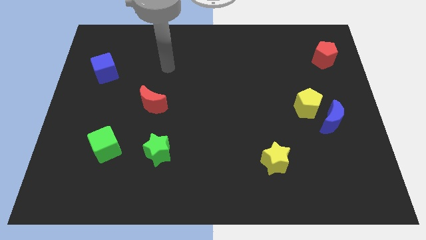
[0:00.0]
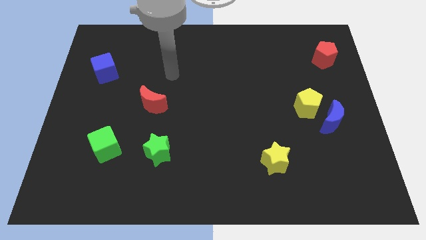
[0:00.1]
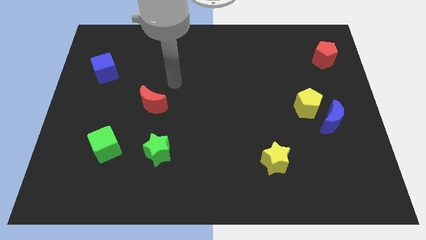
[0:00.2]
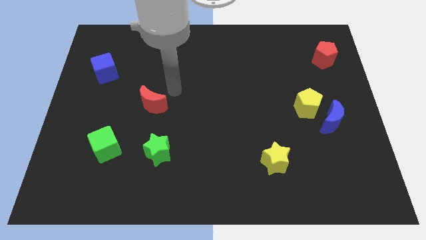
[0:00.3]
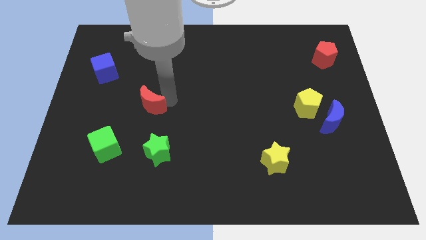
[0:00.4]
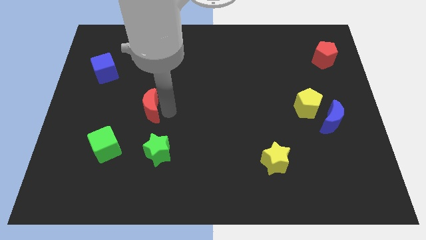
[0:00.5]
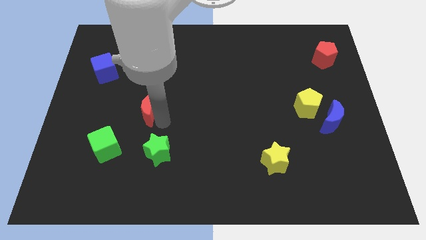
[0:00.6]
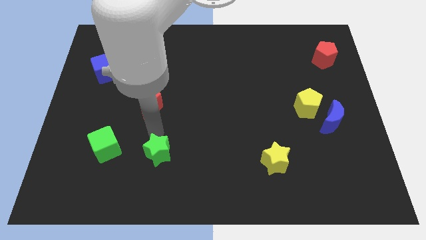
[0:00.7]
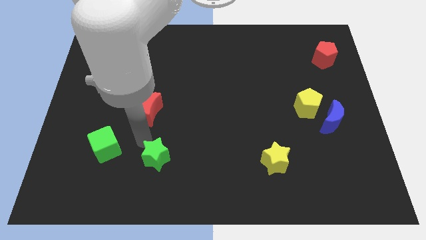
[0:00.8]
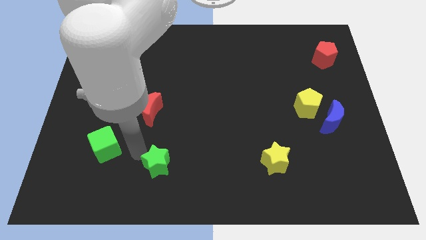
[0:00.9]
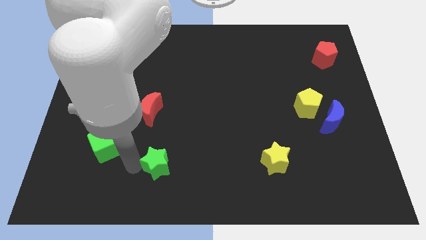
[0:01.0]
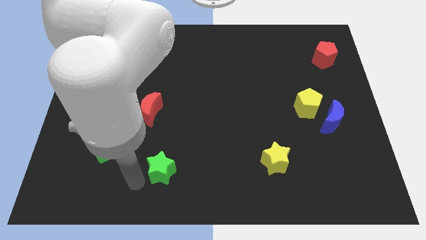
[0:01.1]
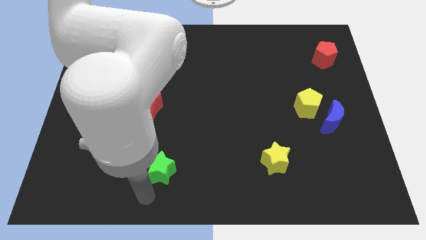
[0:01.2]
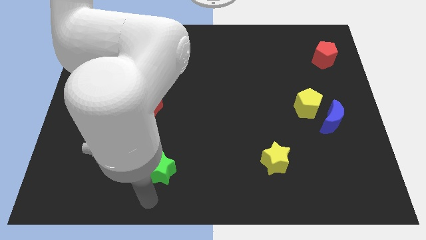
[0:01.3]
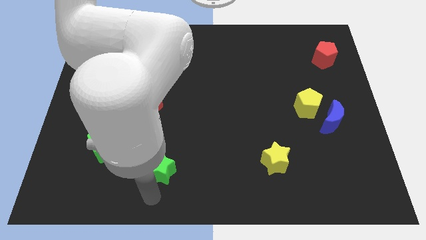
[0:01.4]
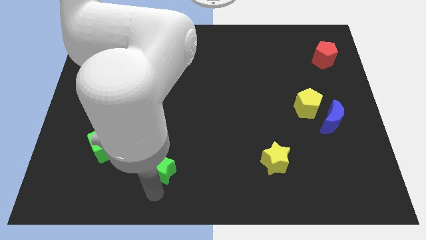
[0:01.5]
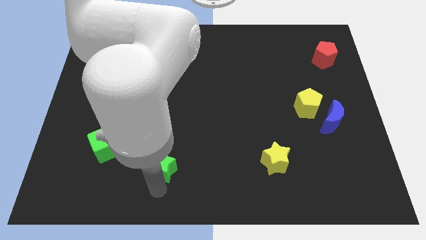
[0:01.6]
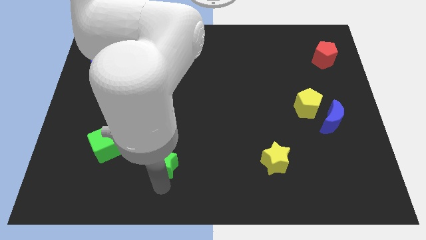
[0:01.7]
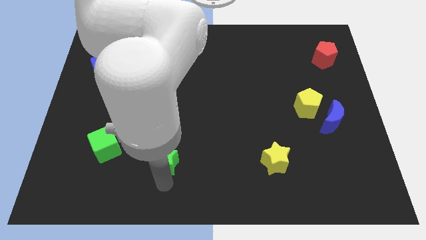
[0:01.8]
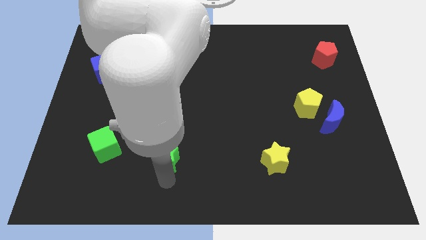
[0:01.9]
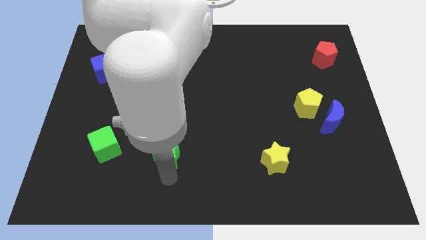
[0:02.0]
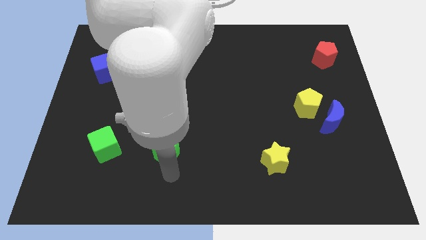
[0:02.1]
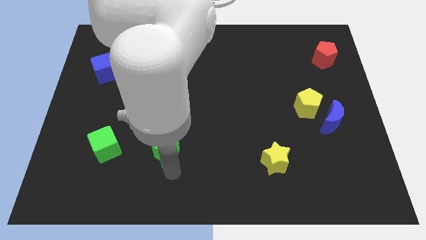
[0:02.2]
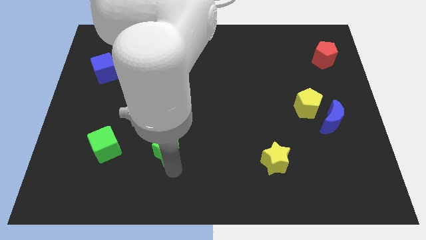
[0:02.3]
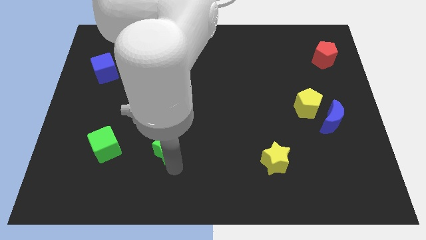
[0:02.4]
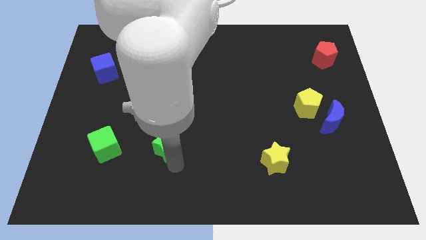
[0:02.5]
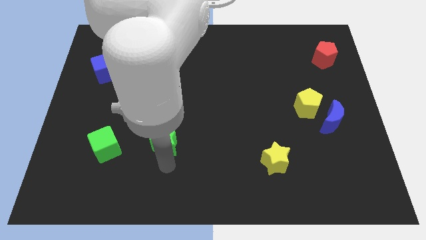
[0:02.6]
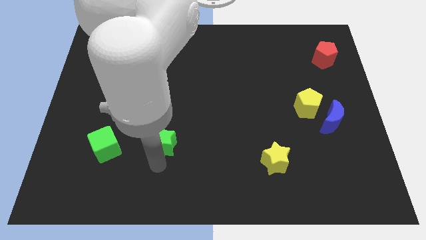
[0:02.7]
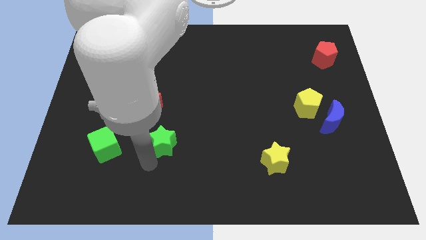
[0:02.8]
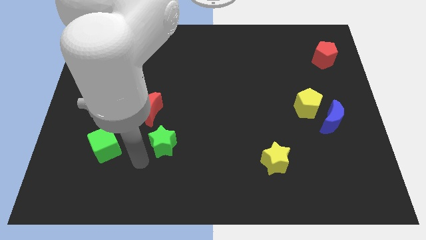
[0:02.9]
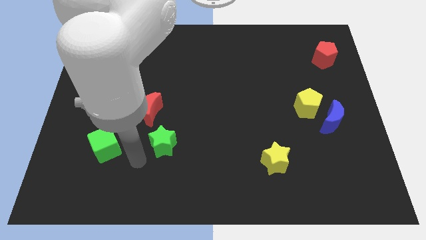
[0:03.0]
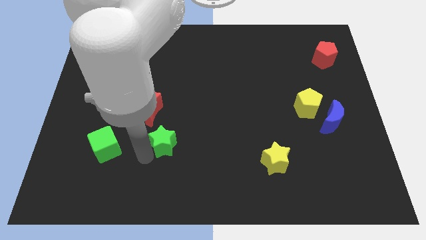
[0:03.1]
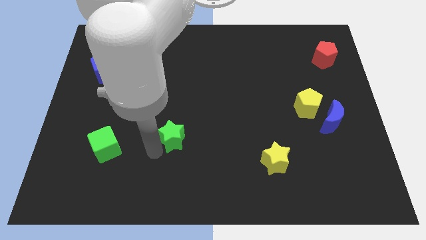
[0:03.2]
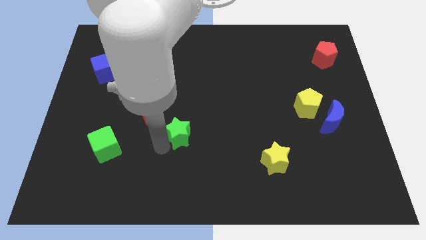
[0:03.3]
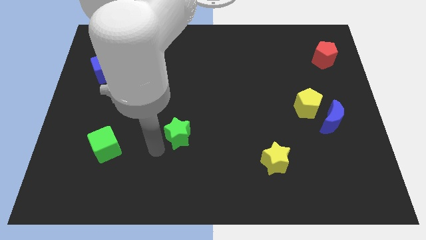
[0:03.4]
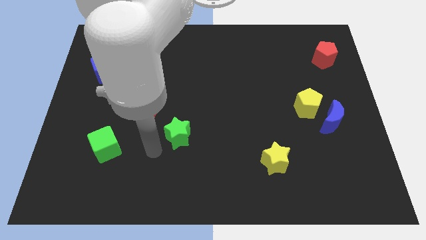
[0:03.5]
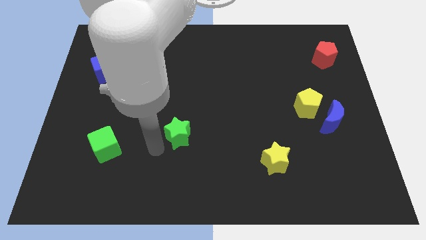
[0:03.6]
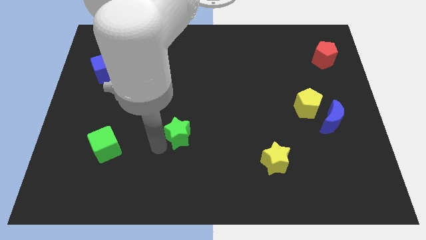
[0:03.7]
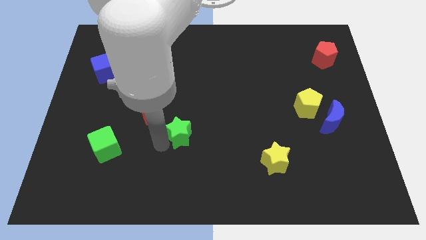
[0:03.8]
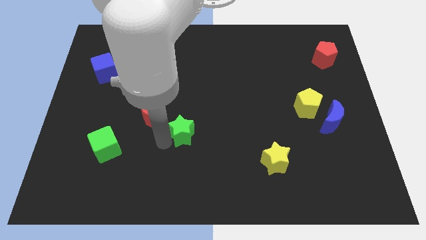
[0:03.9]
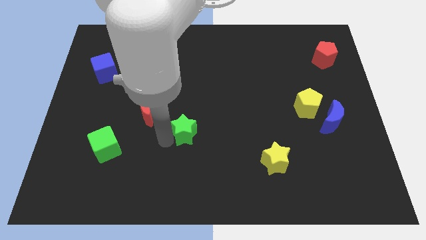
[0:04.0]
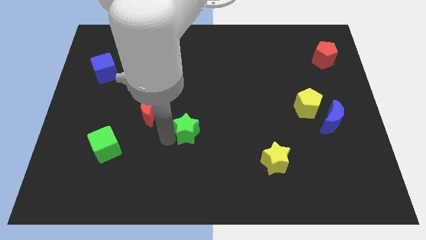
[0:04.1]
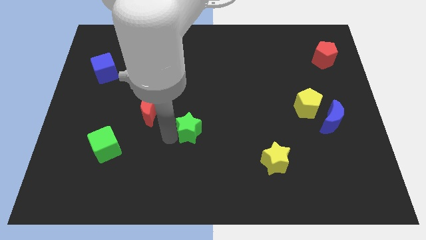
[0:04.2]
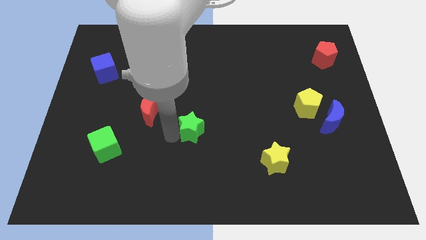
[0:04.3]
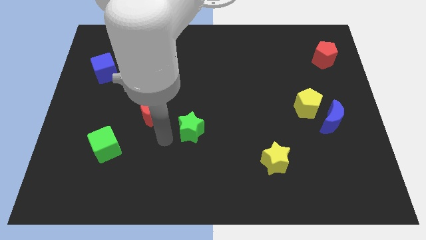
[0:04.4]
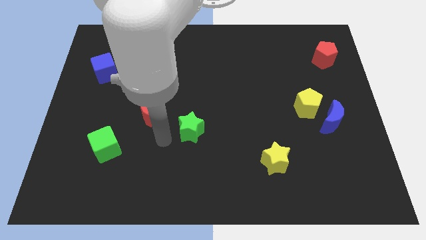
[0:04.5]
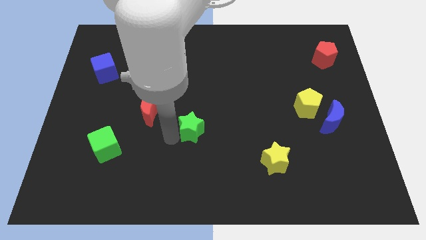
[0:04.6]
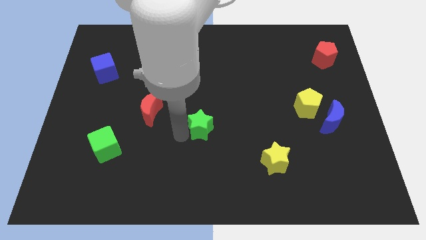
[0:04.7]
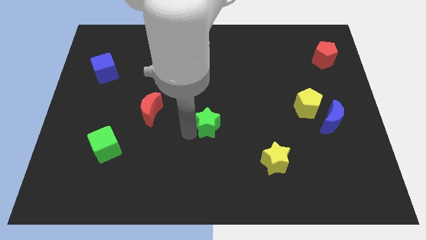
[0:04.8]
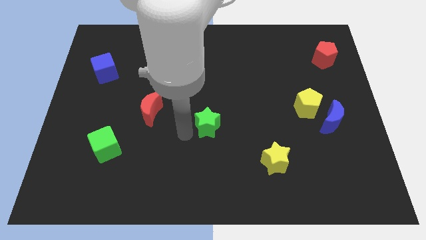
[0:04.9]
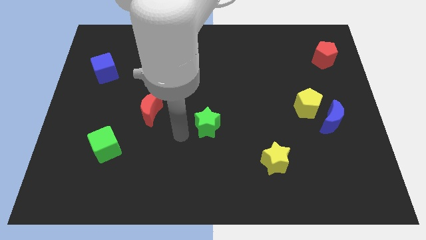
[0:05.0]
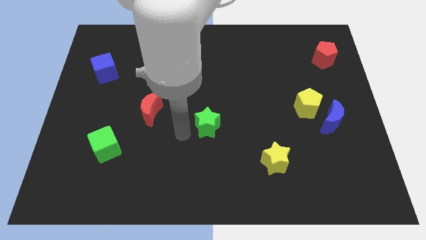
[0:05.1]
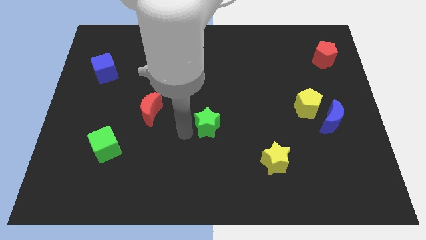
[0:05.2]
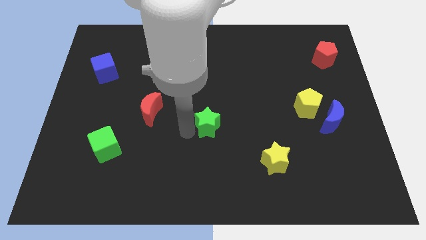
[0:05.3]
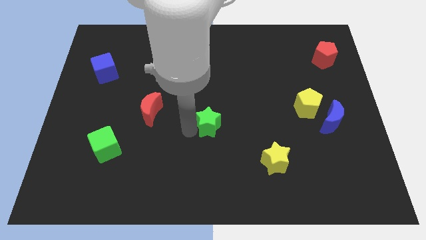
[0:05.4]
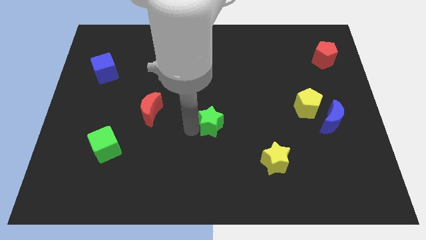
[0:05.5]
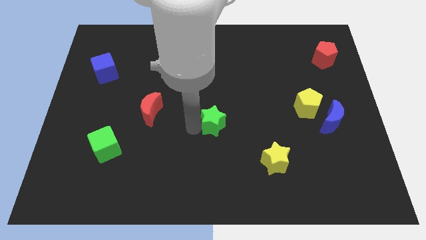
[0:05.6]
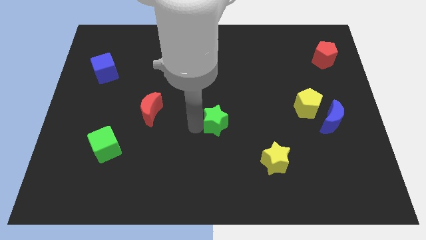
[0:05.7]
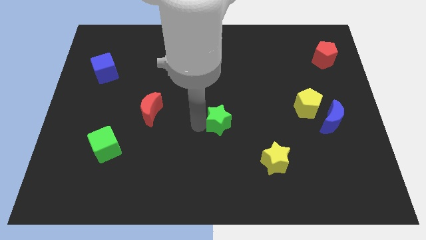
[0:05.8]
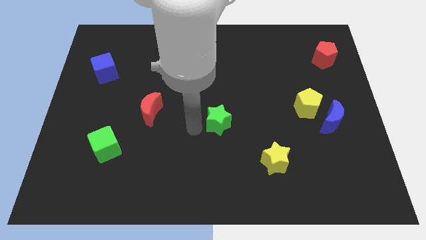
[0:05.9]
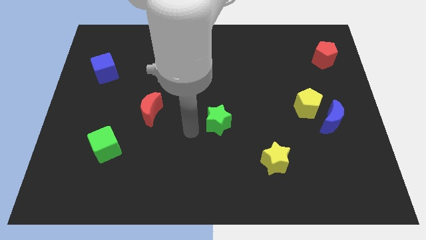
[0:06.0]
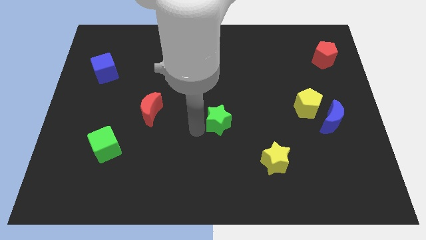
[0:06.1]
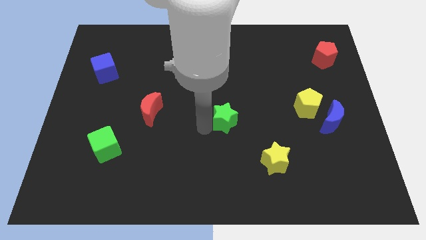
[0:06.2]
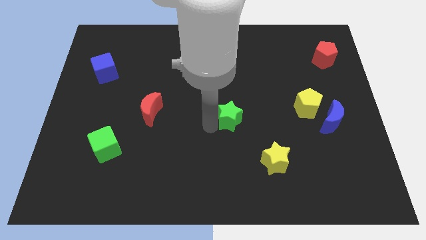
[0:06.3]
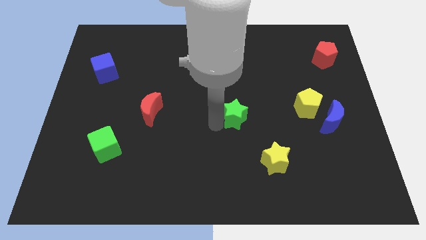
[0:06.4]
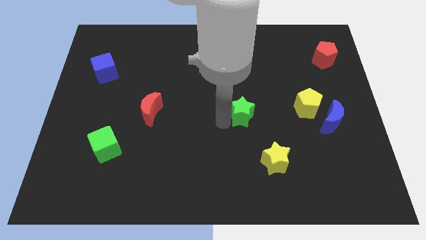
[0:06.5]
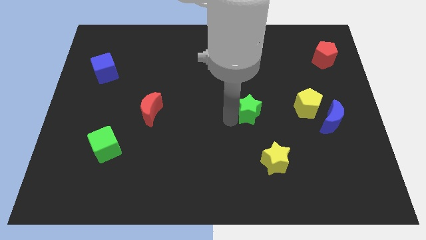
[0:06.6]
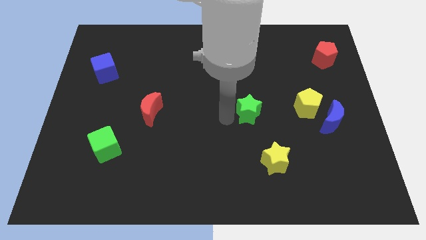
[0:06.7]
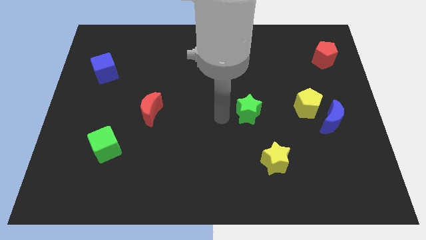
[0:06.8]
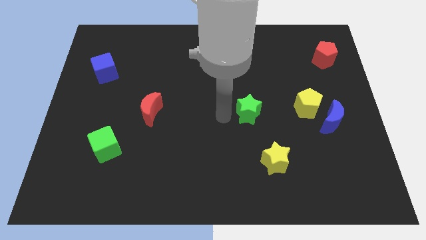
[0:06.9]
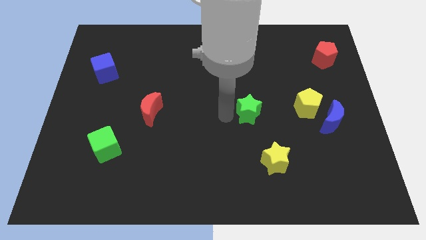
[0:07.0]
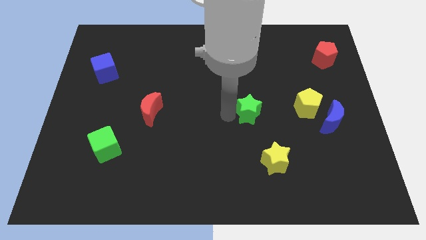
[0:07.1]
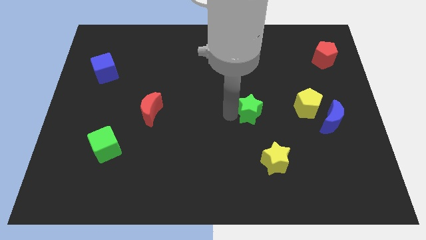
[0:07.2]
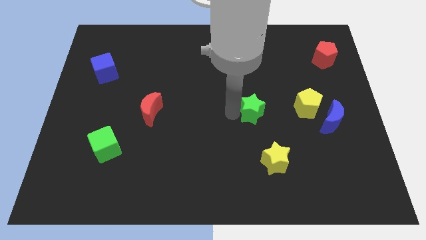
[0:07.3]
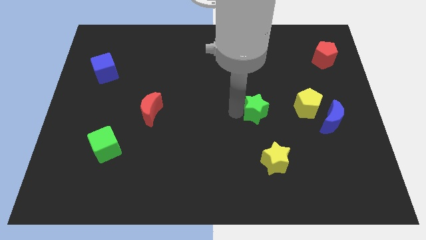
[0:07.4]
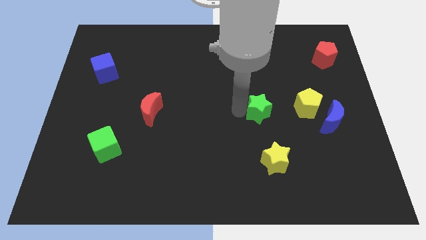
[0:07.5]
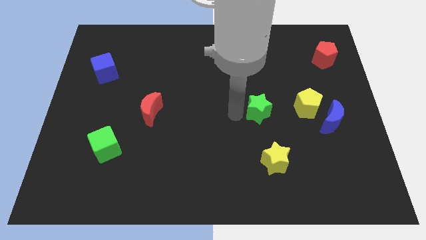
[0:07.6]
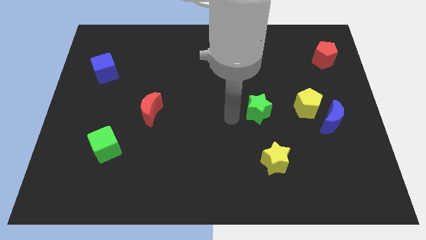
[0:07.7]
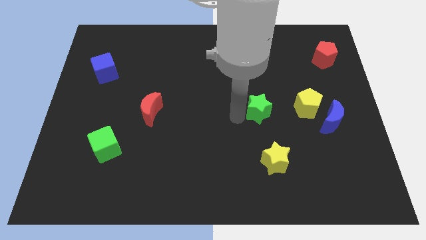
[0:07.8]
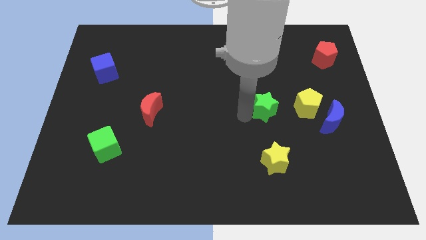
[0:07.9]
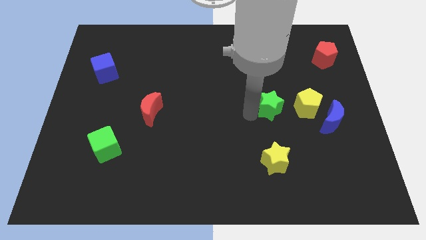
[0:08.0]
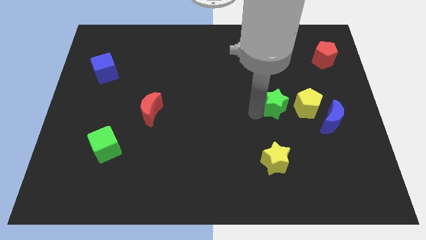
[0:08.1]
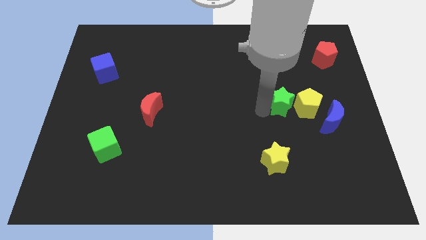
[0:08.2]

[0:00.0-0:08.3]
slide the green star next to the yellow pentagon
